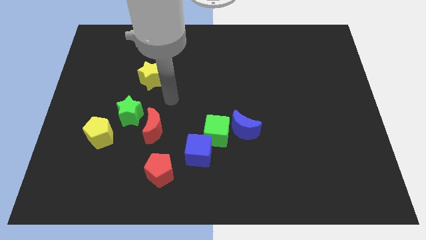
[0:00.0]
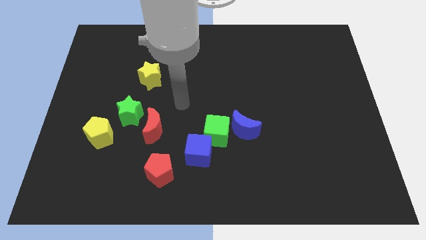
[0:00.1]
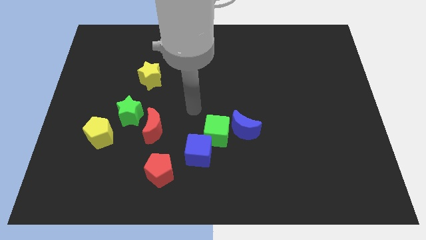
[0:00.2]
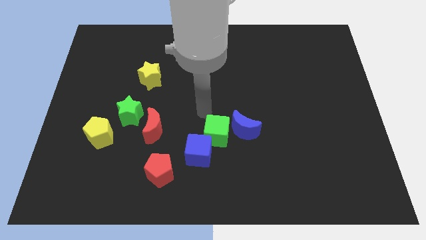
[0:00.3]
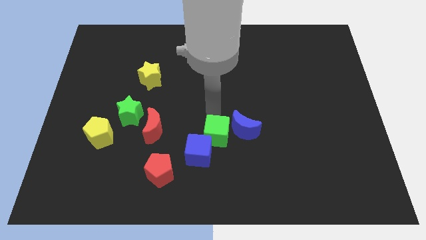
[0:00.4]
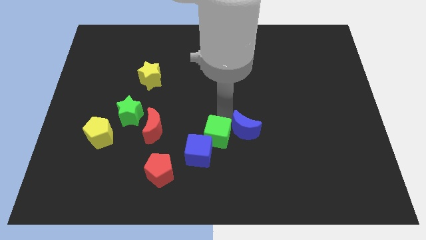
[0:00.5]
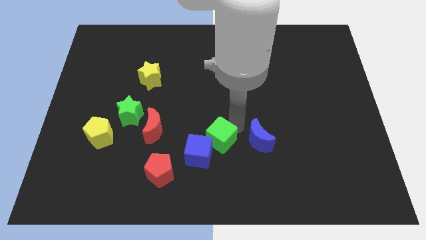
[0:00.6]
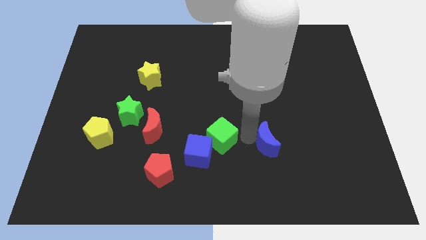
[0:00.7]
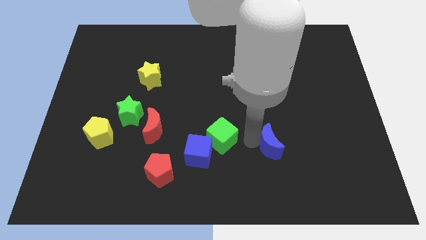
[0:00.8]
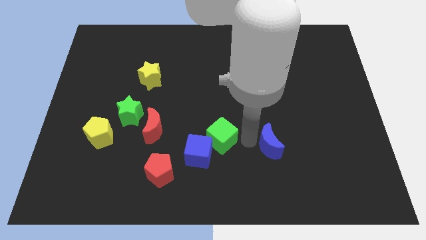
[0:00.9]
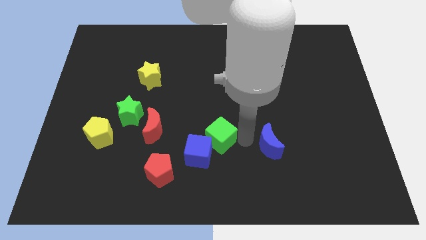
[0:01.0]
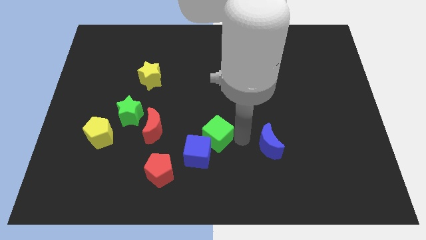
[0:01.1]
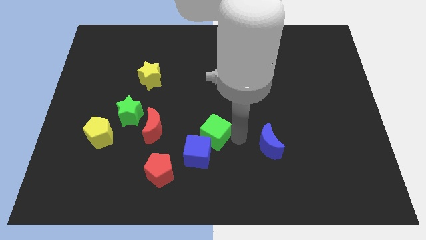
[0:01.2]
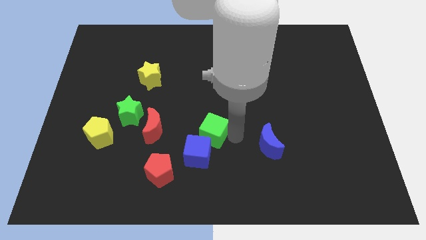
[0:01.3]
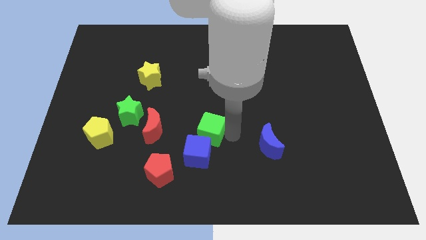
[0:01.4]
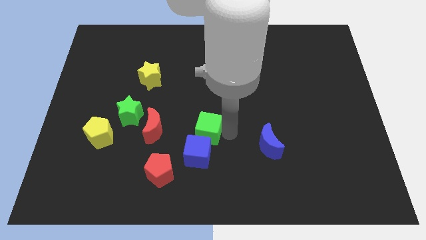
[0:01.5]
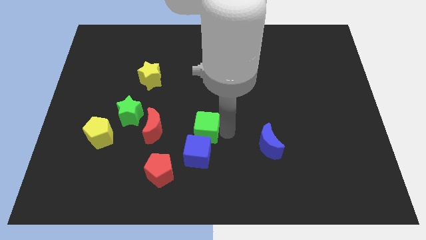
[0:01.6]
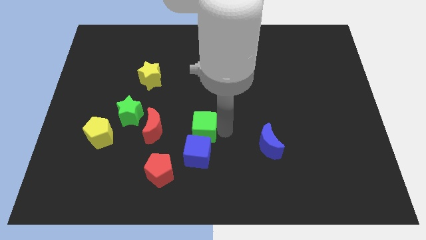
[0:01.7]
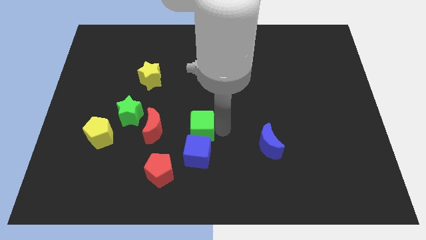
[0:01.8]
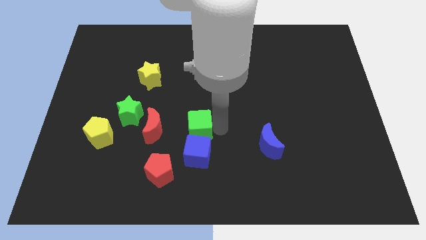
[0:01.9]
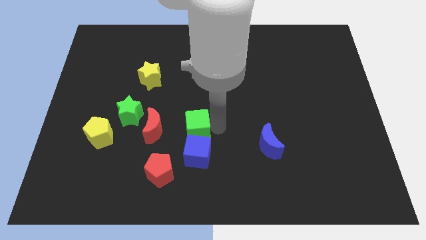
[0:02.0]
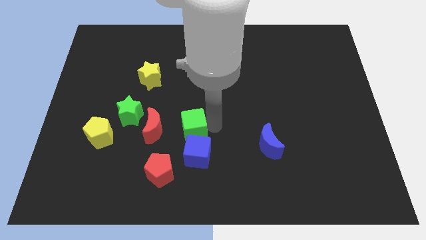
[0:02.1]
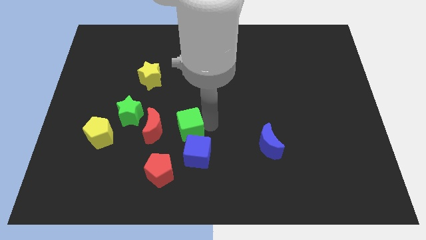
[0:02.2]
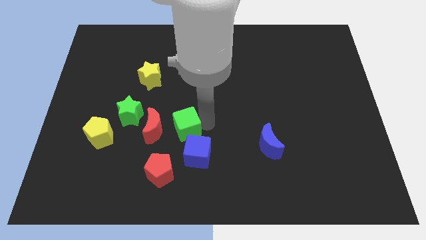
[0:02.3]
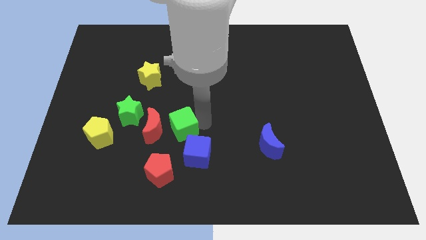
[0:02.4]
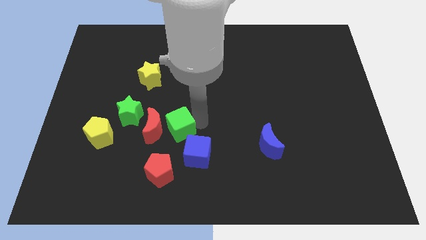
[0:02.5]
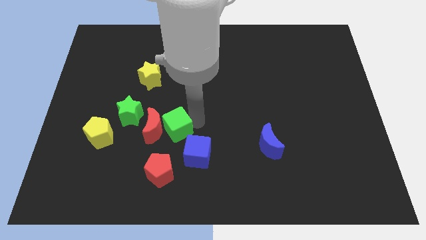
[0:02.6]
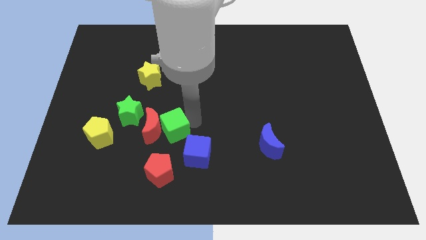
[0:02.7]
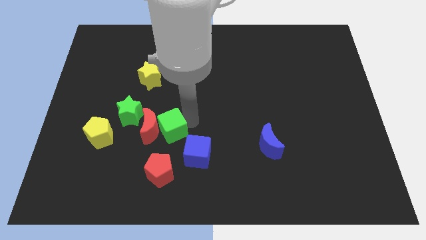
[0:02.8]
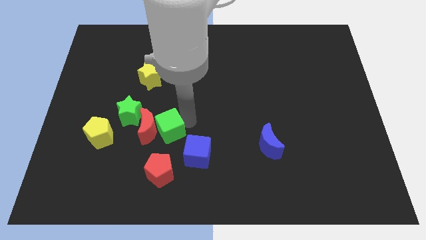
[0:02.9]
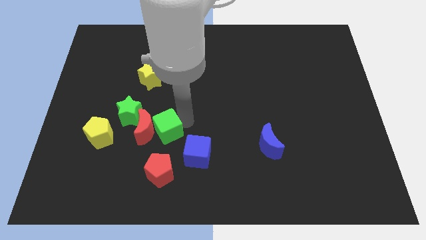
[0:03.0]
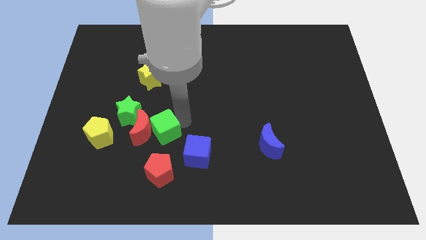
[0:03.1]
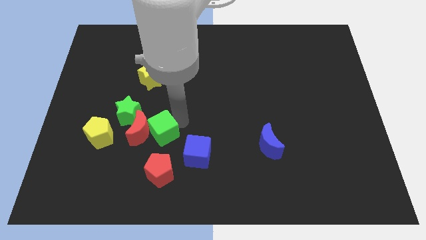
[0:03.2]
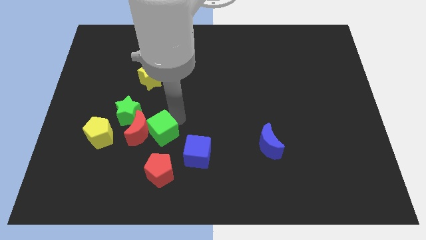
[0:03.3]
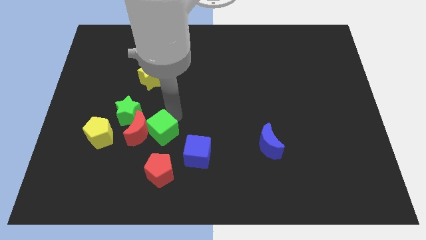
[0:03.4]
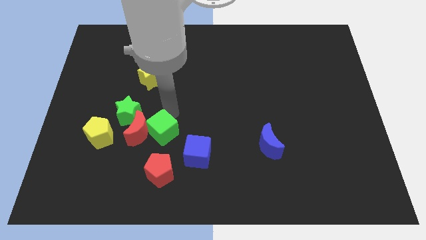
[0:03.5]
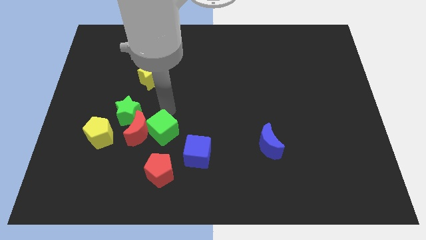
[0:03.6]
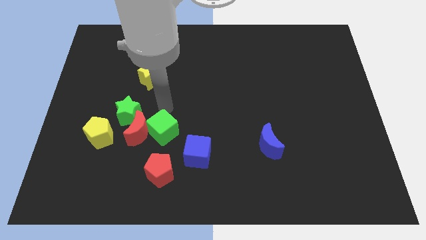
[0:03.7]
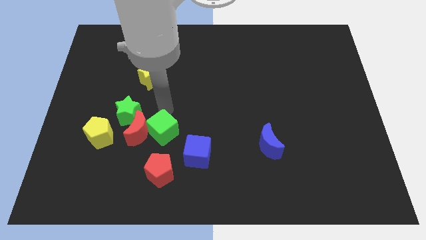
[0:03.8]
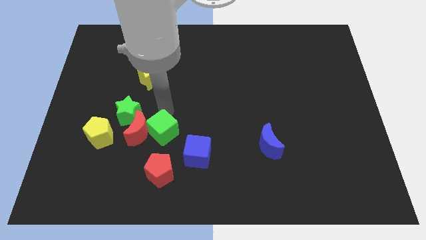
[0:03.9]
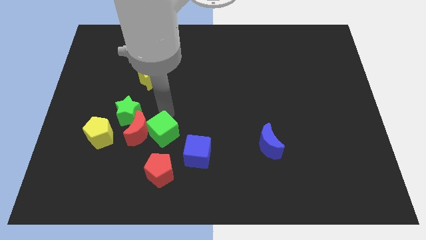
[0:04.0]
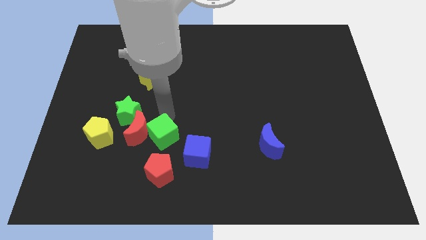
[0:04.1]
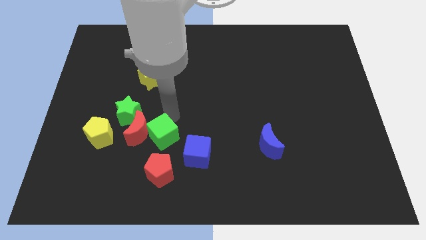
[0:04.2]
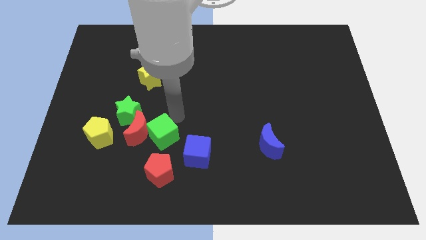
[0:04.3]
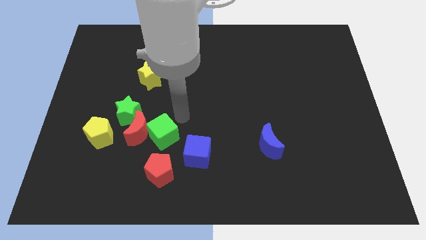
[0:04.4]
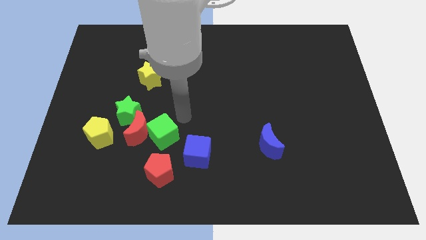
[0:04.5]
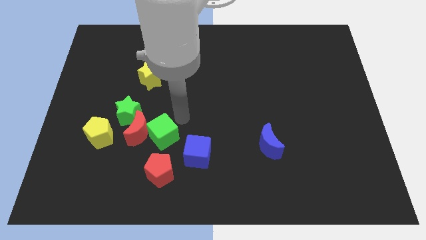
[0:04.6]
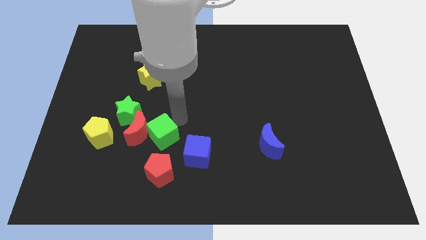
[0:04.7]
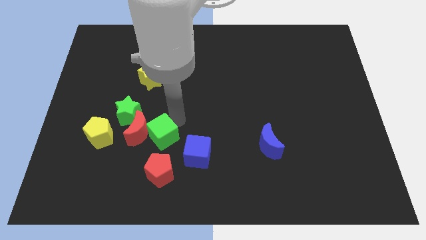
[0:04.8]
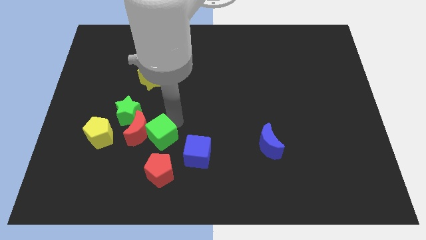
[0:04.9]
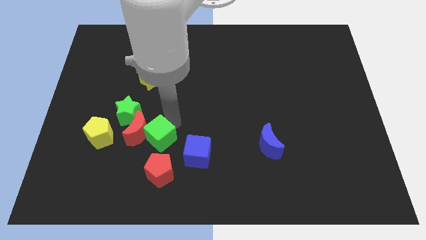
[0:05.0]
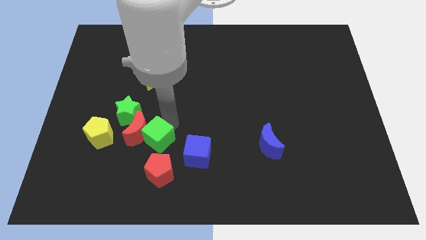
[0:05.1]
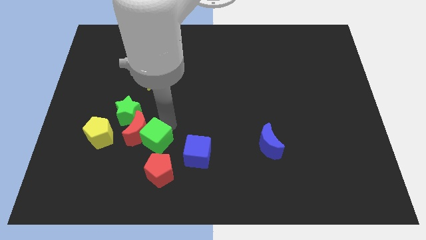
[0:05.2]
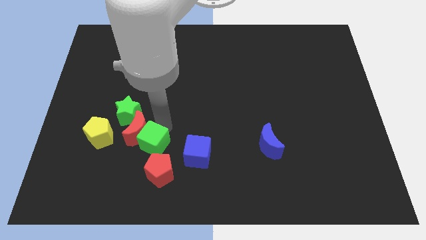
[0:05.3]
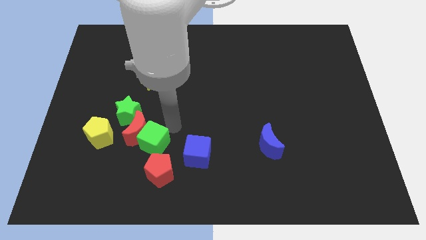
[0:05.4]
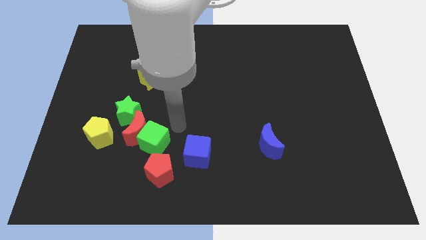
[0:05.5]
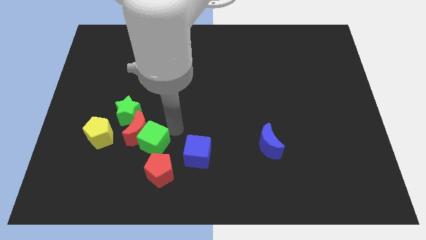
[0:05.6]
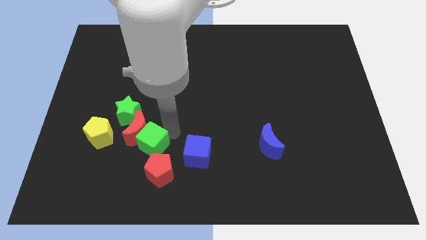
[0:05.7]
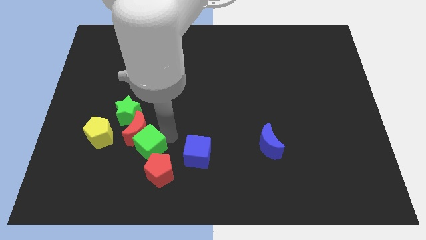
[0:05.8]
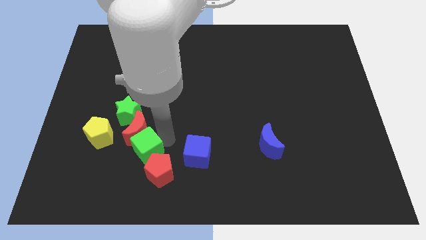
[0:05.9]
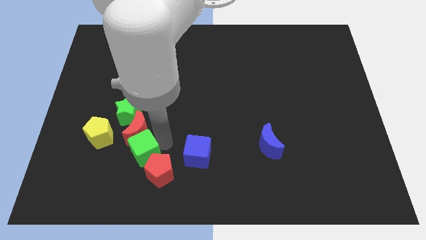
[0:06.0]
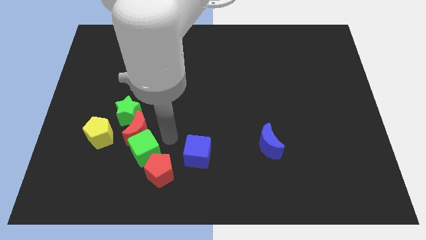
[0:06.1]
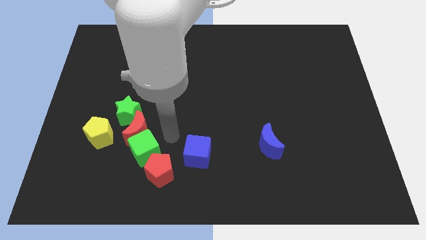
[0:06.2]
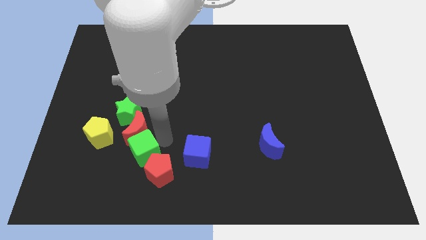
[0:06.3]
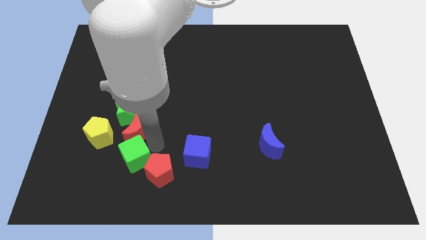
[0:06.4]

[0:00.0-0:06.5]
put the green cube to the left of the red pentagon

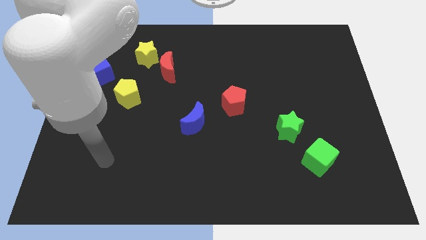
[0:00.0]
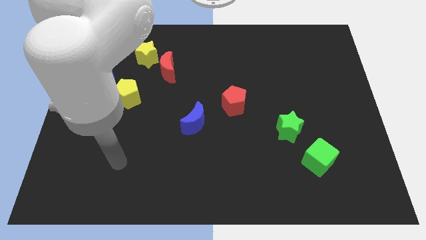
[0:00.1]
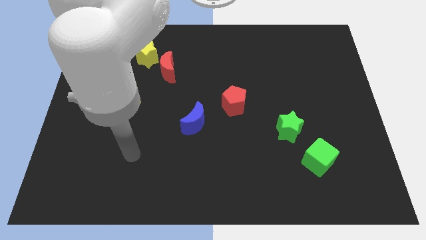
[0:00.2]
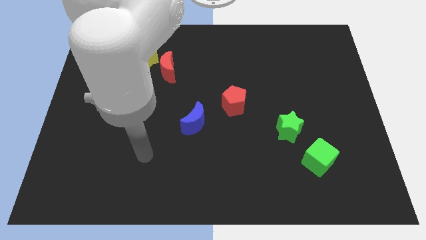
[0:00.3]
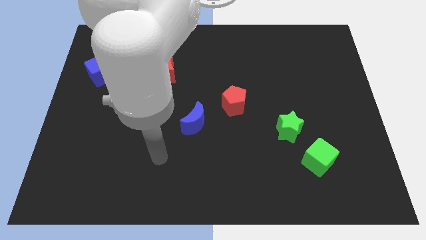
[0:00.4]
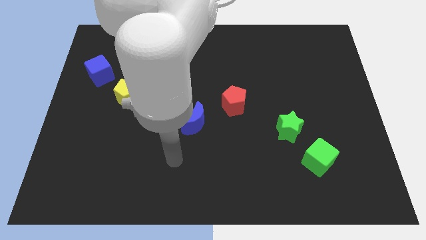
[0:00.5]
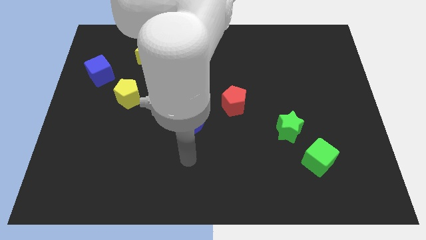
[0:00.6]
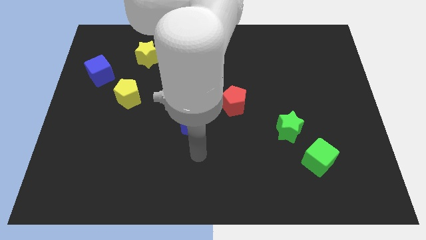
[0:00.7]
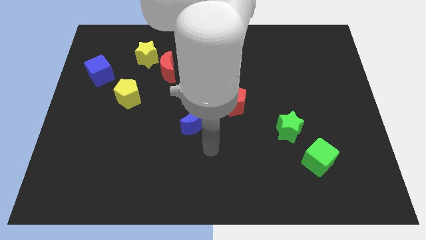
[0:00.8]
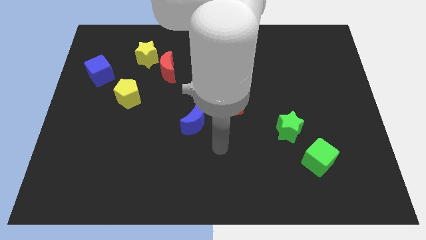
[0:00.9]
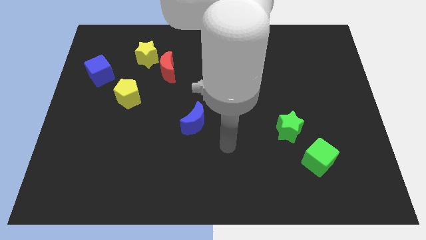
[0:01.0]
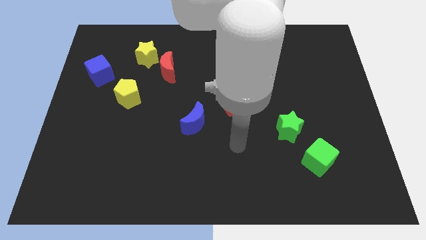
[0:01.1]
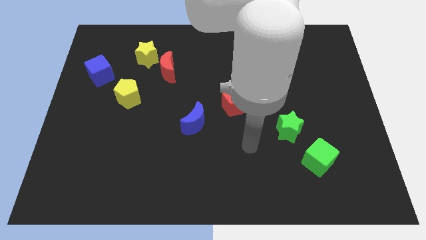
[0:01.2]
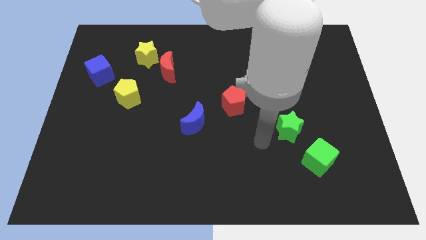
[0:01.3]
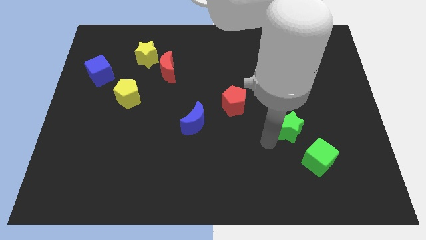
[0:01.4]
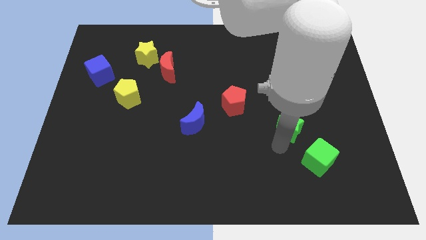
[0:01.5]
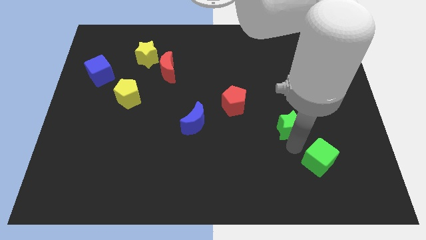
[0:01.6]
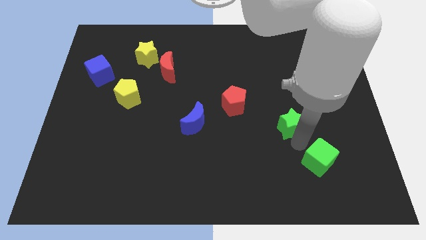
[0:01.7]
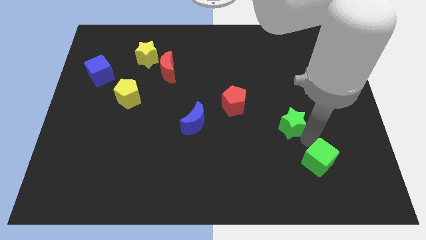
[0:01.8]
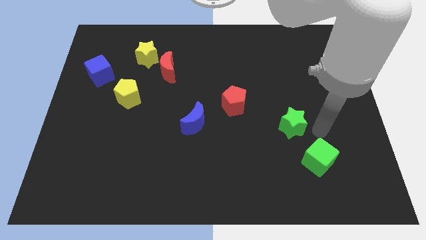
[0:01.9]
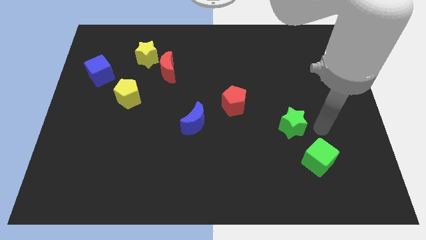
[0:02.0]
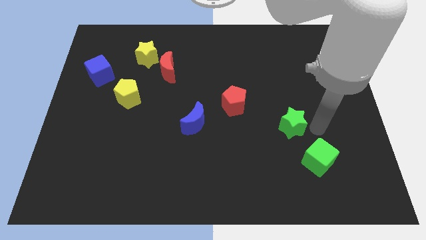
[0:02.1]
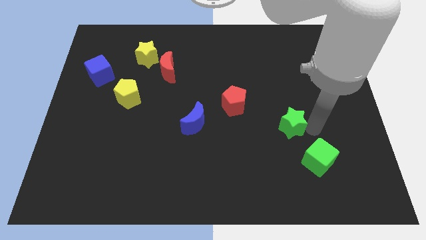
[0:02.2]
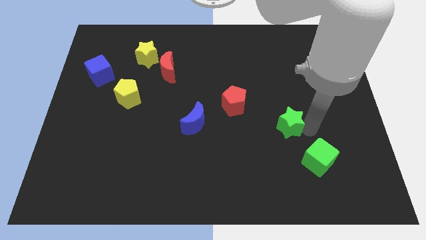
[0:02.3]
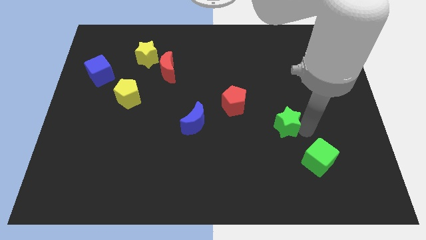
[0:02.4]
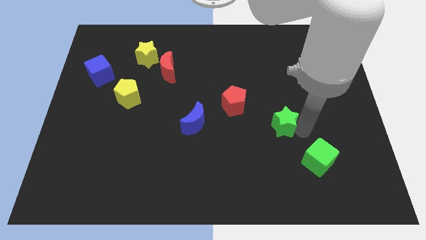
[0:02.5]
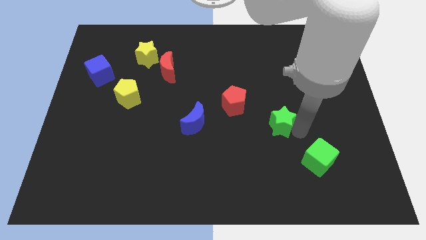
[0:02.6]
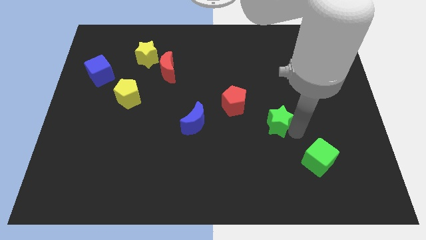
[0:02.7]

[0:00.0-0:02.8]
put the green star to the bottom right of the red pentagon
